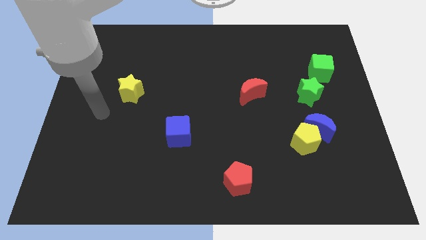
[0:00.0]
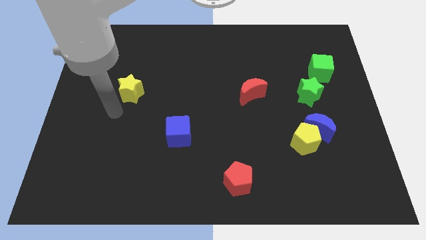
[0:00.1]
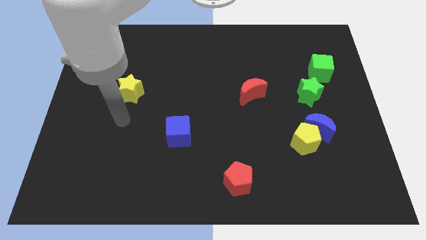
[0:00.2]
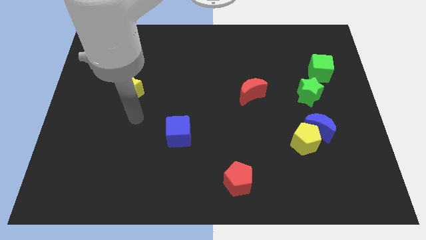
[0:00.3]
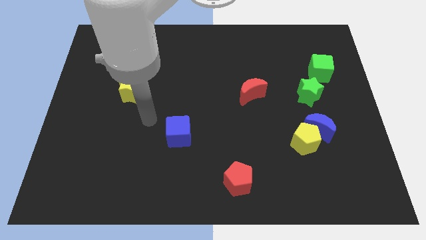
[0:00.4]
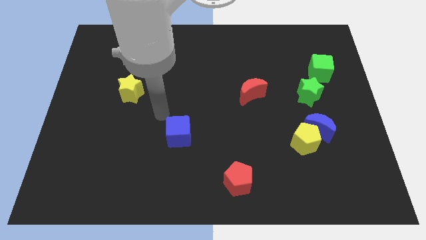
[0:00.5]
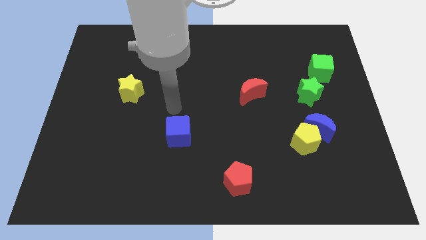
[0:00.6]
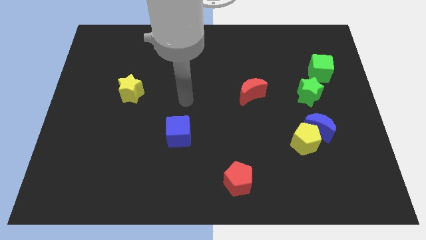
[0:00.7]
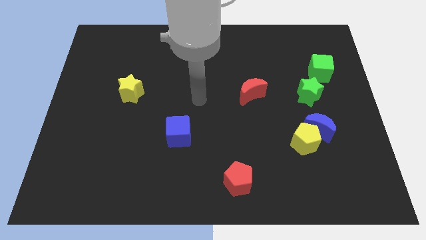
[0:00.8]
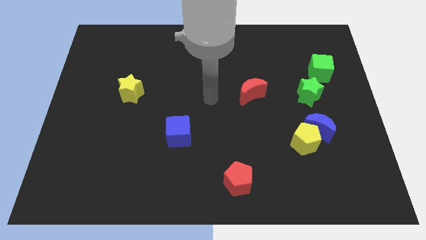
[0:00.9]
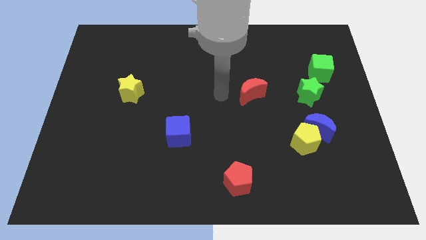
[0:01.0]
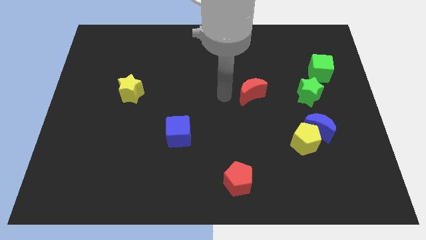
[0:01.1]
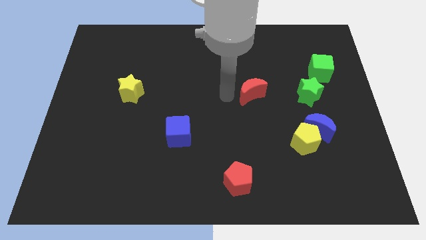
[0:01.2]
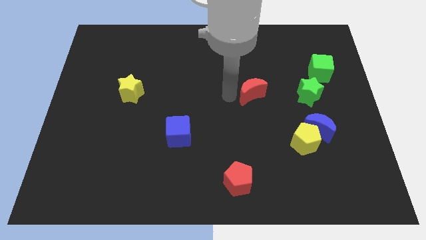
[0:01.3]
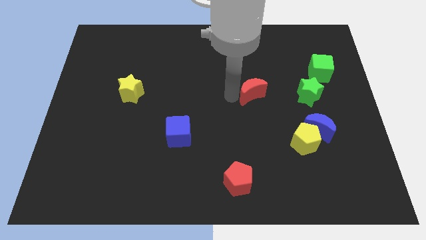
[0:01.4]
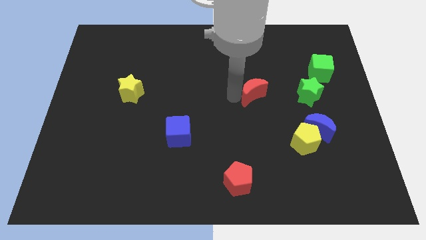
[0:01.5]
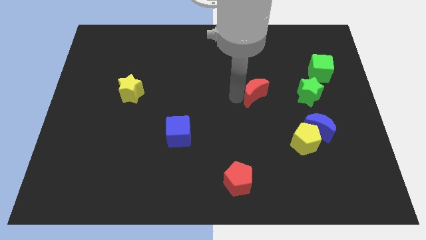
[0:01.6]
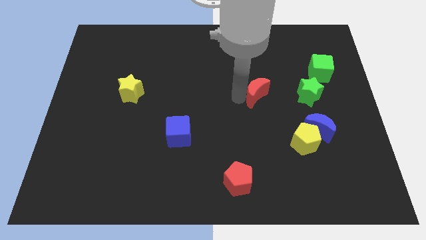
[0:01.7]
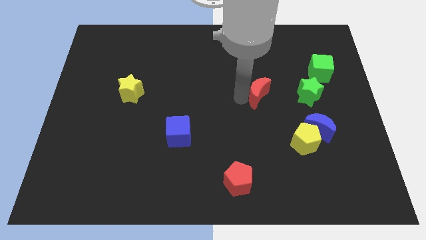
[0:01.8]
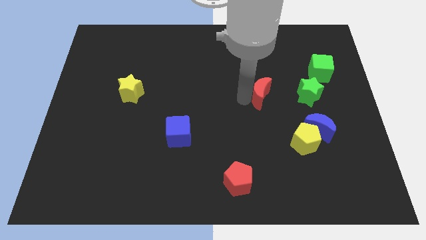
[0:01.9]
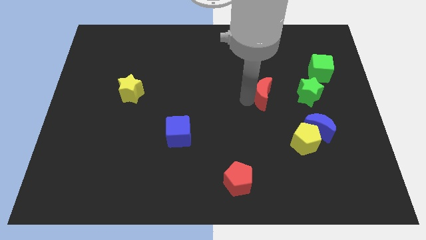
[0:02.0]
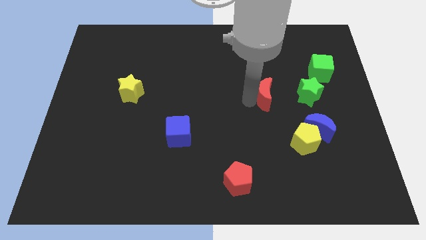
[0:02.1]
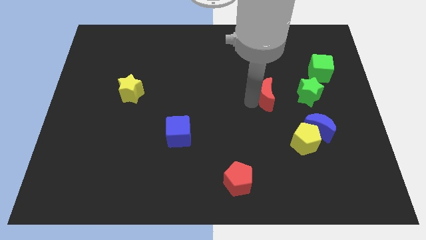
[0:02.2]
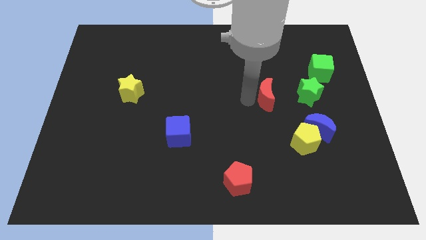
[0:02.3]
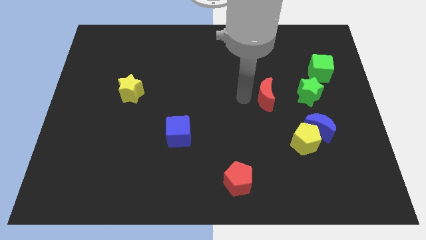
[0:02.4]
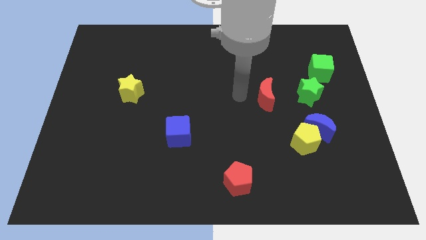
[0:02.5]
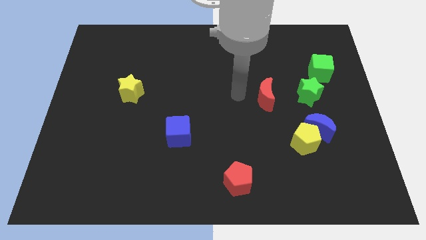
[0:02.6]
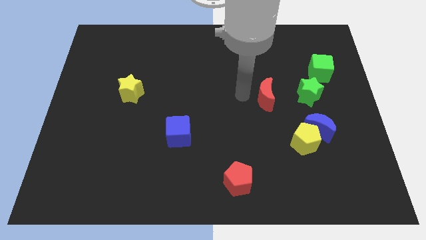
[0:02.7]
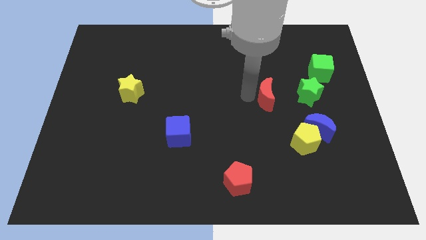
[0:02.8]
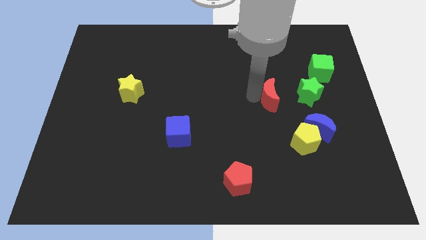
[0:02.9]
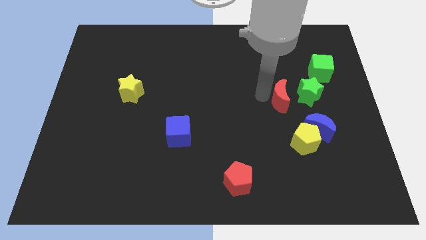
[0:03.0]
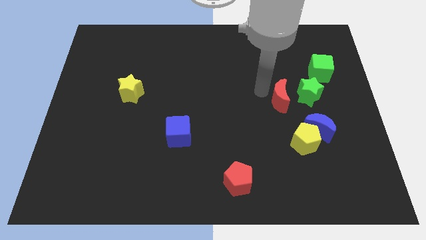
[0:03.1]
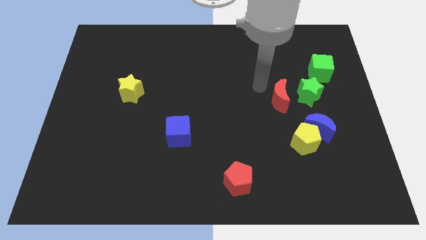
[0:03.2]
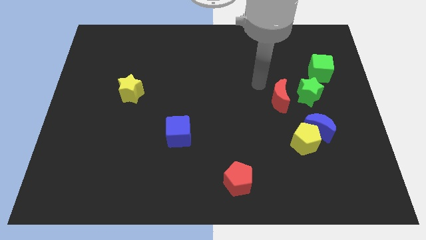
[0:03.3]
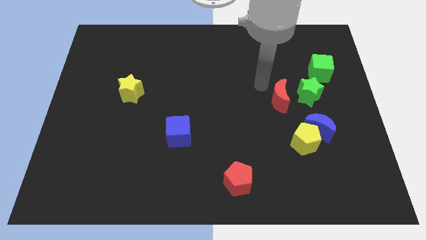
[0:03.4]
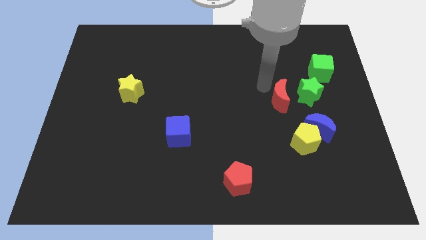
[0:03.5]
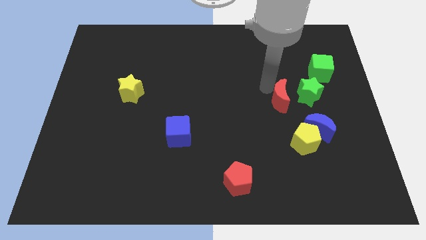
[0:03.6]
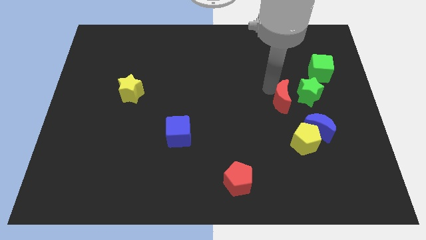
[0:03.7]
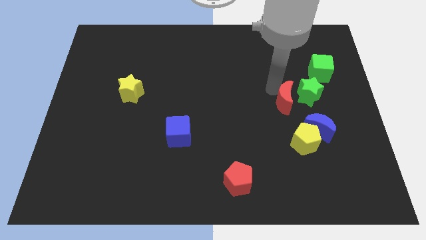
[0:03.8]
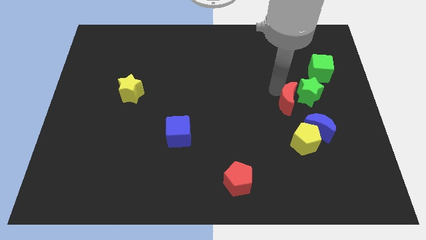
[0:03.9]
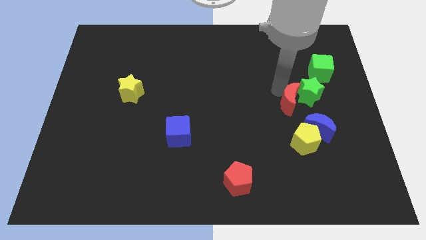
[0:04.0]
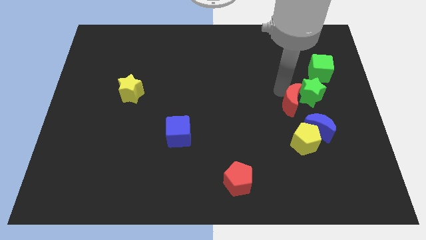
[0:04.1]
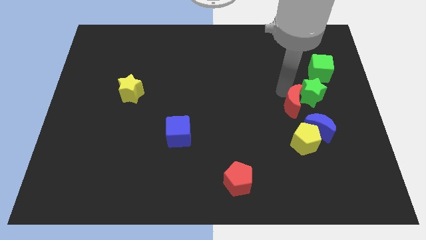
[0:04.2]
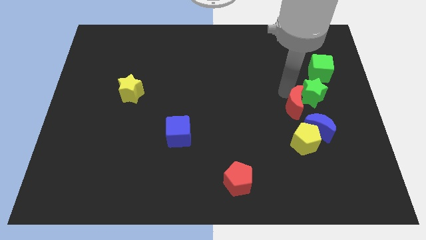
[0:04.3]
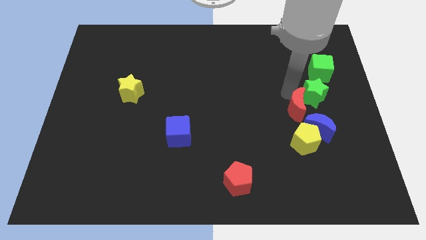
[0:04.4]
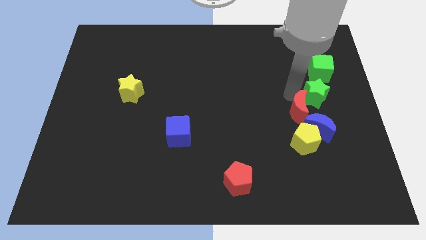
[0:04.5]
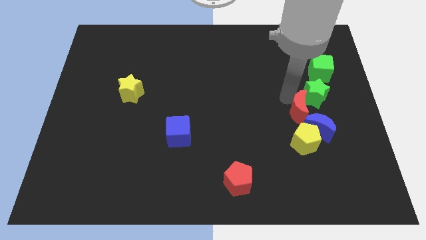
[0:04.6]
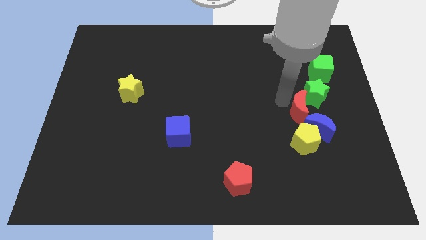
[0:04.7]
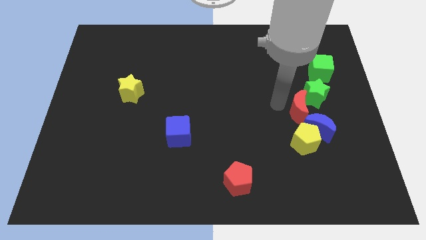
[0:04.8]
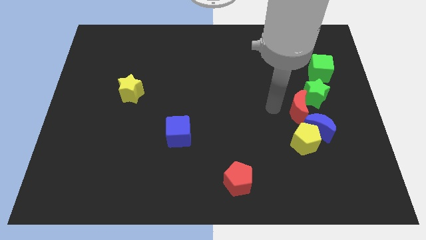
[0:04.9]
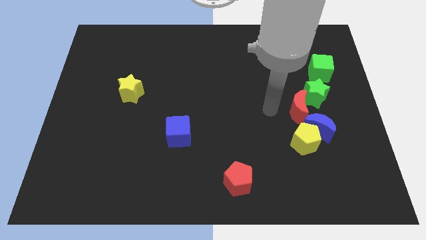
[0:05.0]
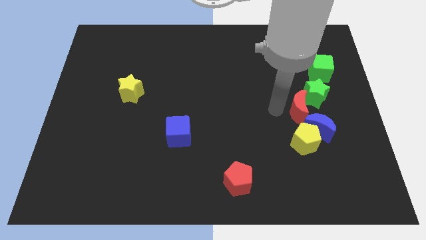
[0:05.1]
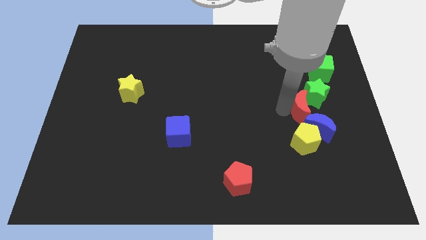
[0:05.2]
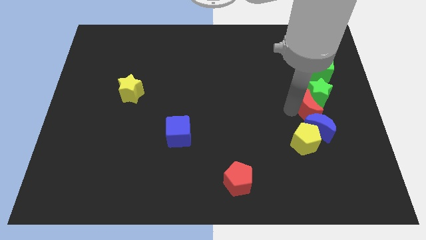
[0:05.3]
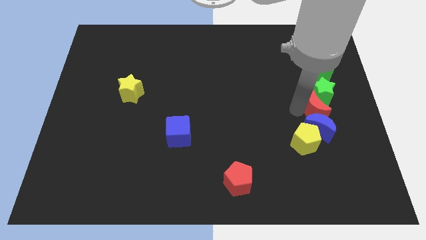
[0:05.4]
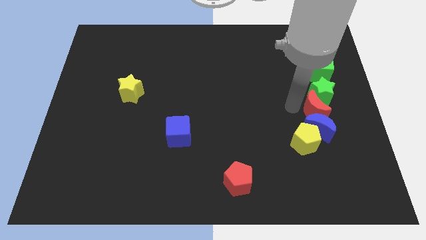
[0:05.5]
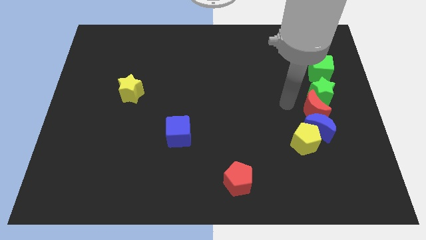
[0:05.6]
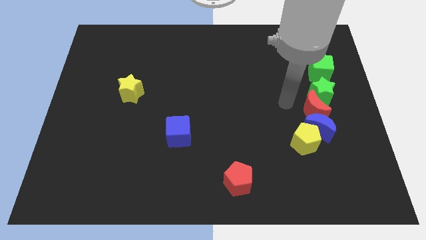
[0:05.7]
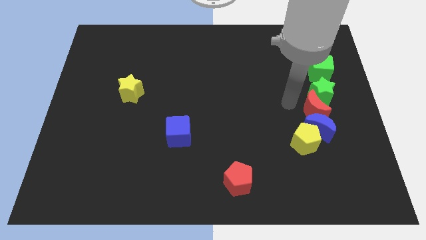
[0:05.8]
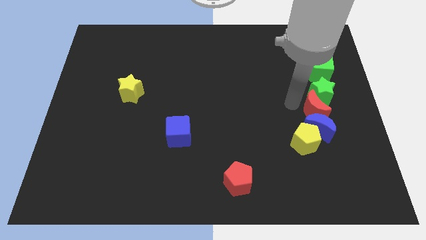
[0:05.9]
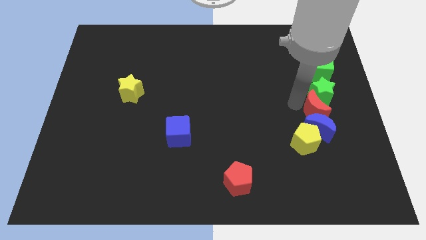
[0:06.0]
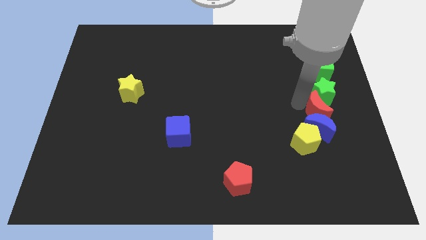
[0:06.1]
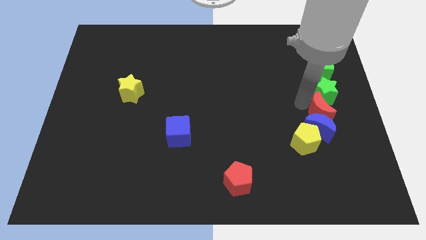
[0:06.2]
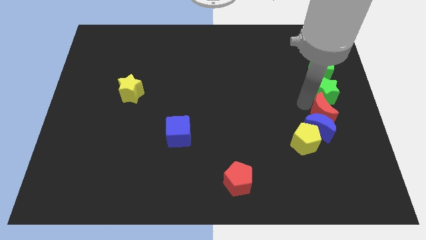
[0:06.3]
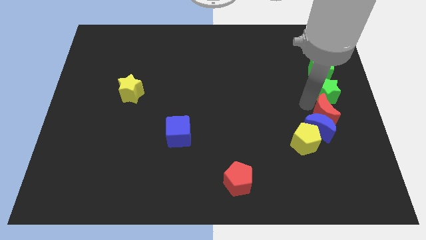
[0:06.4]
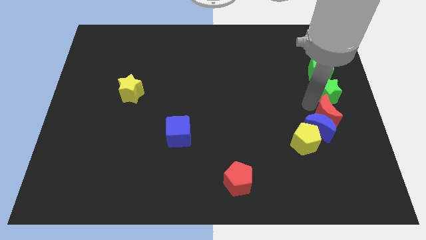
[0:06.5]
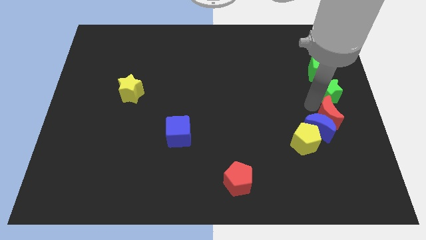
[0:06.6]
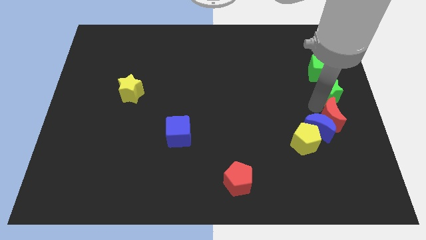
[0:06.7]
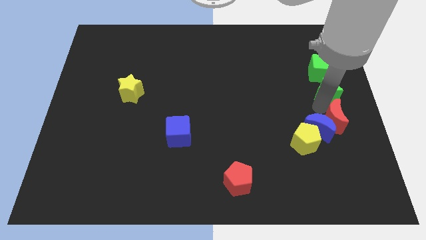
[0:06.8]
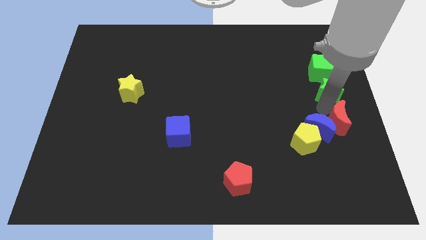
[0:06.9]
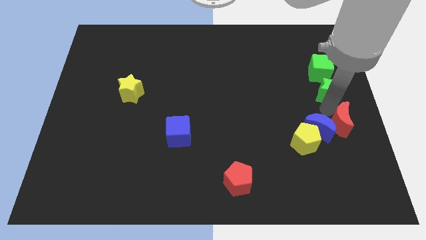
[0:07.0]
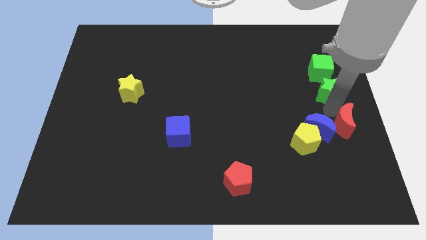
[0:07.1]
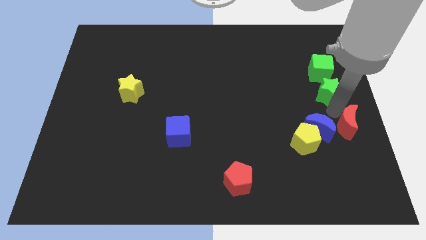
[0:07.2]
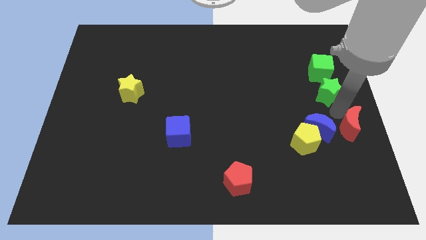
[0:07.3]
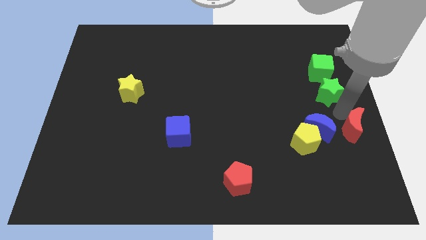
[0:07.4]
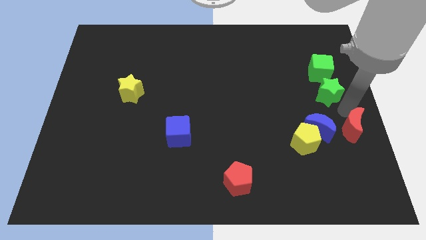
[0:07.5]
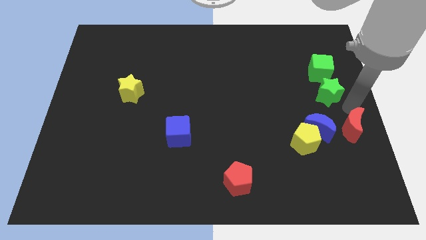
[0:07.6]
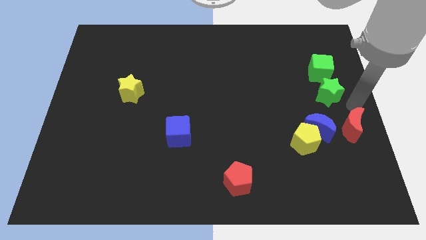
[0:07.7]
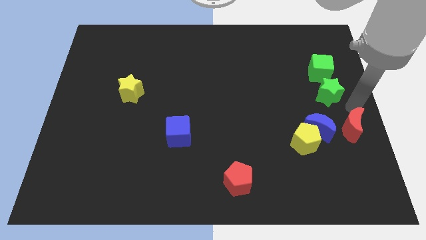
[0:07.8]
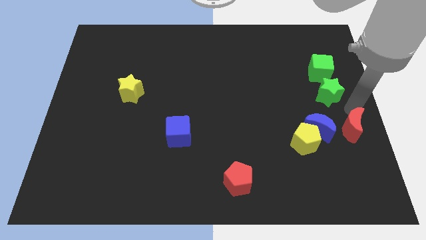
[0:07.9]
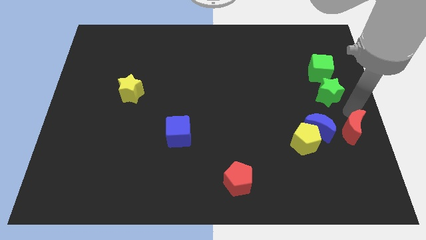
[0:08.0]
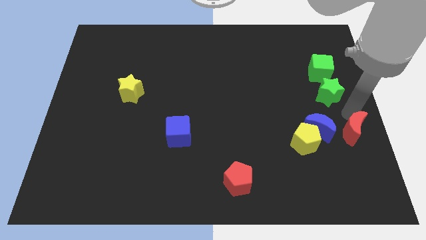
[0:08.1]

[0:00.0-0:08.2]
slide the red moon diagonally down and to the right of the blue moon
